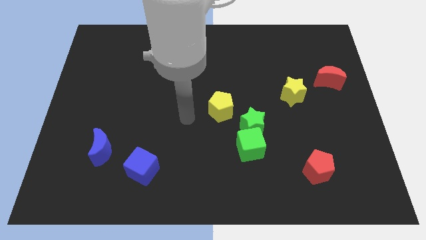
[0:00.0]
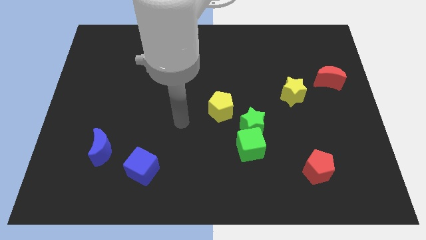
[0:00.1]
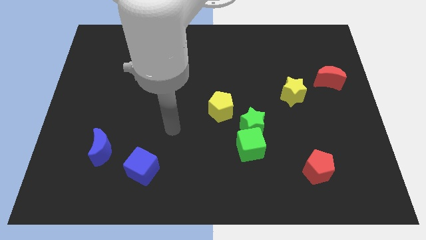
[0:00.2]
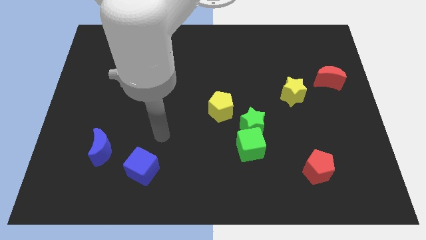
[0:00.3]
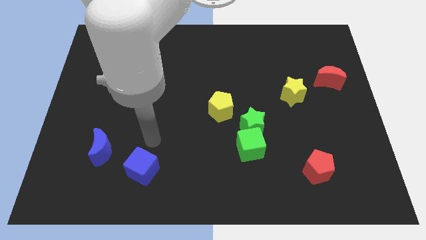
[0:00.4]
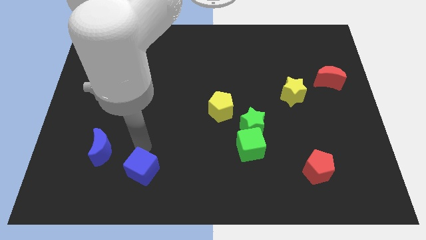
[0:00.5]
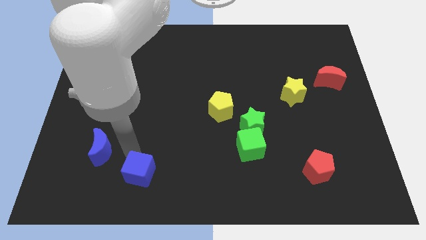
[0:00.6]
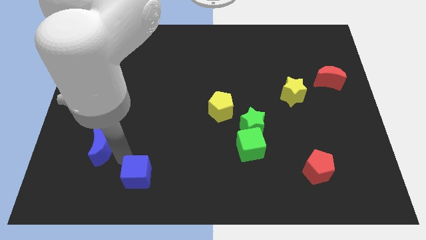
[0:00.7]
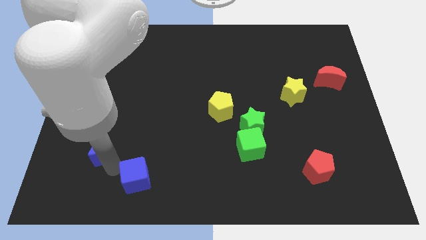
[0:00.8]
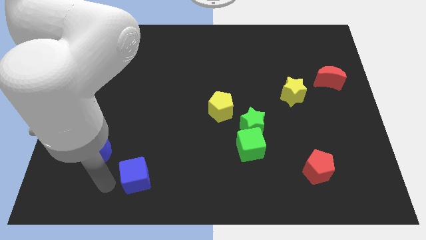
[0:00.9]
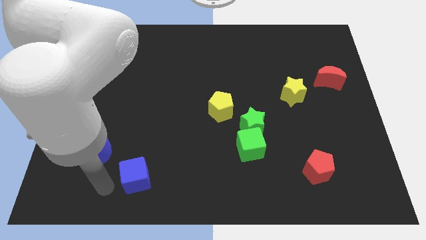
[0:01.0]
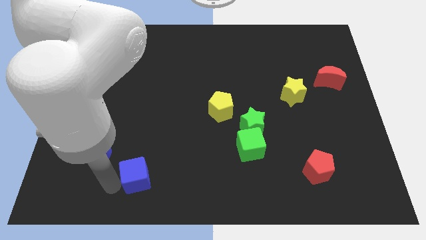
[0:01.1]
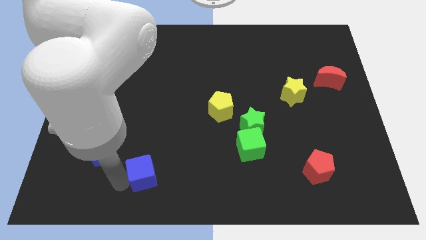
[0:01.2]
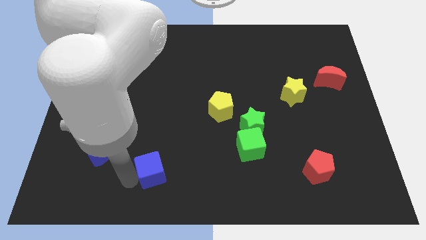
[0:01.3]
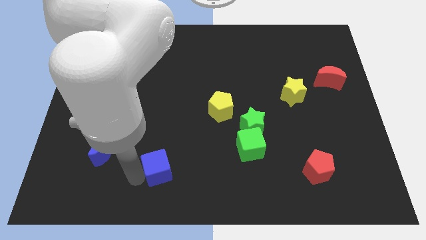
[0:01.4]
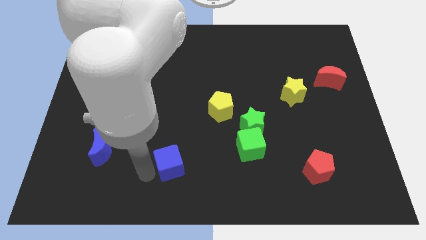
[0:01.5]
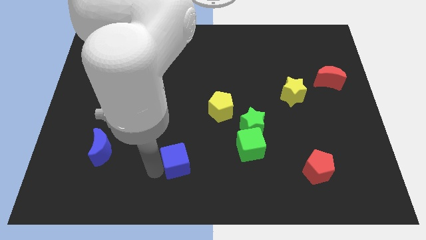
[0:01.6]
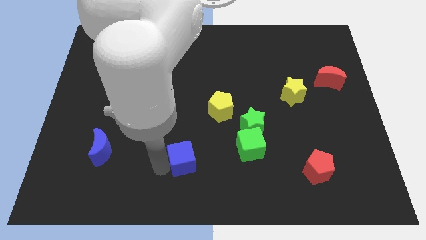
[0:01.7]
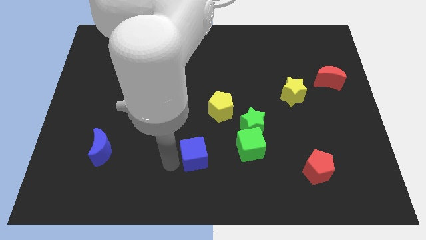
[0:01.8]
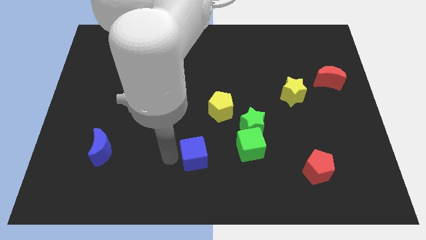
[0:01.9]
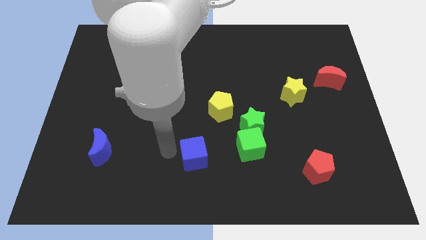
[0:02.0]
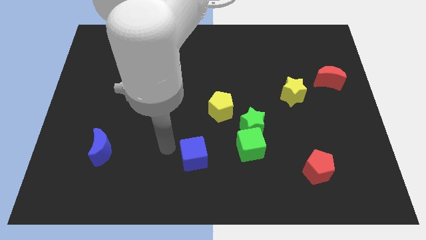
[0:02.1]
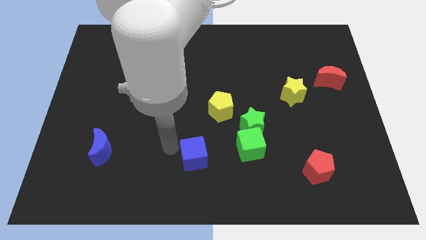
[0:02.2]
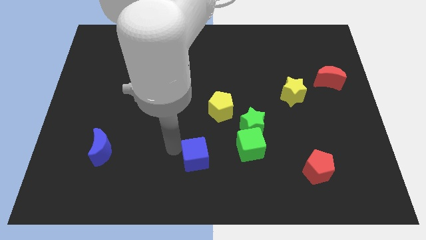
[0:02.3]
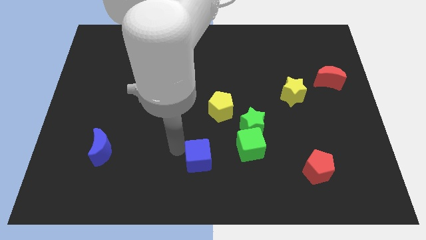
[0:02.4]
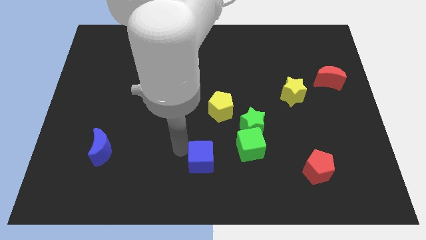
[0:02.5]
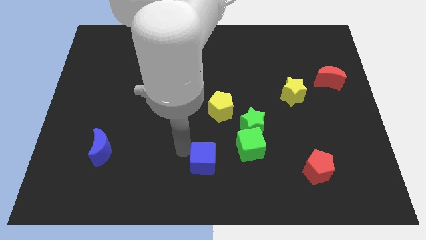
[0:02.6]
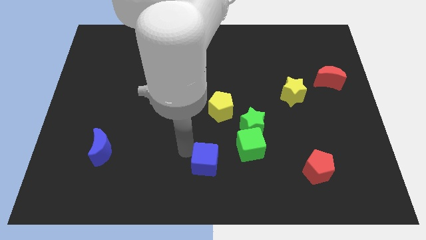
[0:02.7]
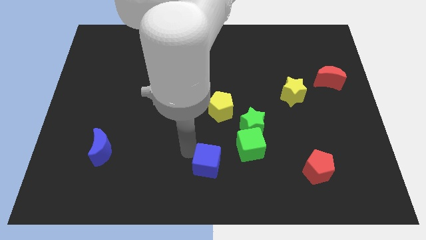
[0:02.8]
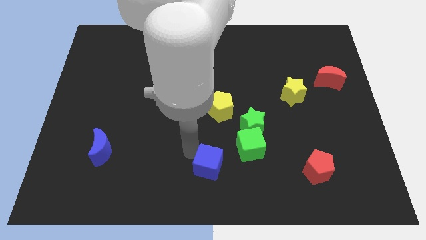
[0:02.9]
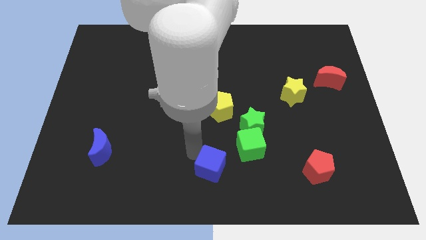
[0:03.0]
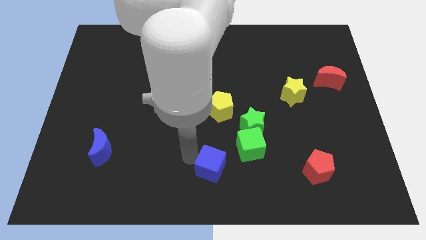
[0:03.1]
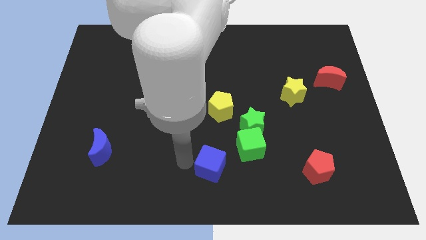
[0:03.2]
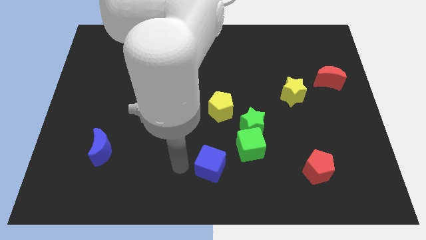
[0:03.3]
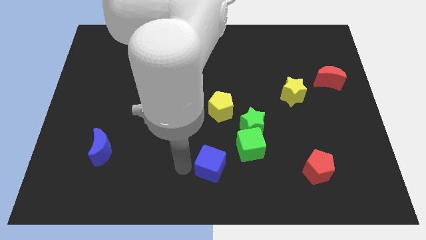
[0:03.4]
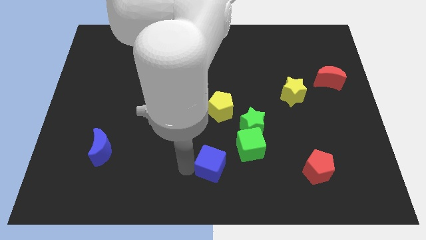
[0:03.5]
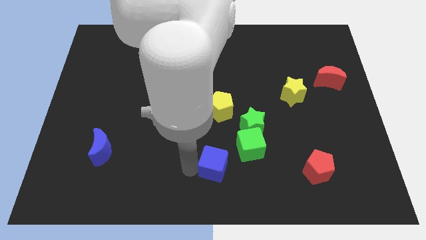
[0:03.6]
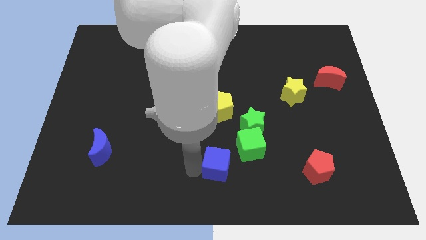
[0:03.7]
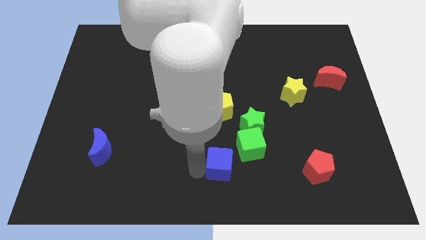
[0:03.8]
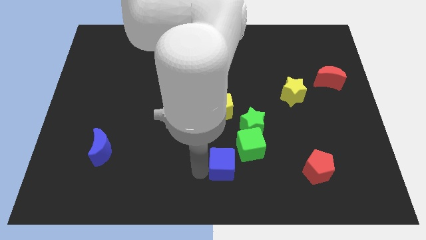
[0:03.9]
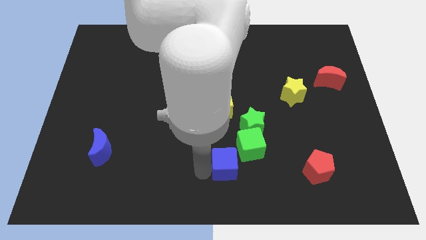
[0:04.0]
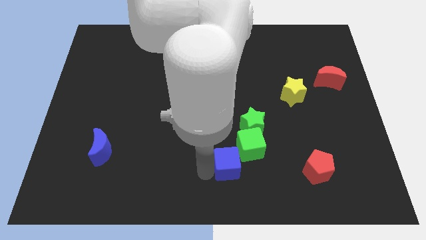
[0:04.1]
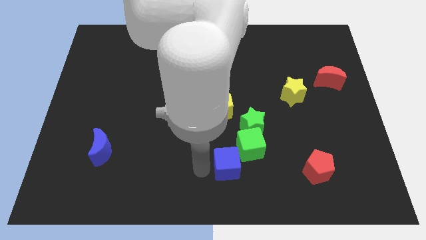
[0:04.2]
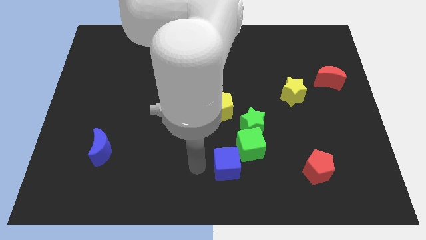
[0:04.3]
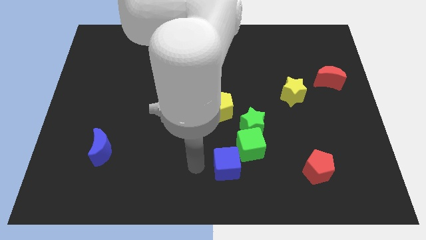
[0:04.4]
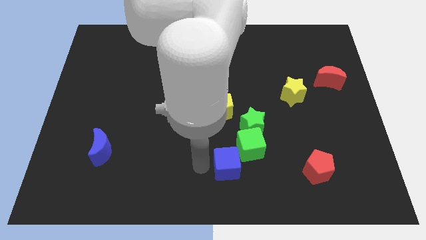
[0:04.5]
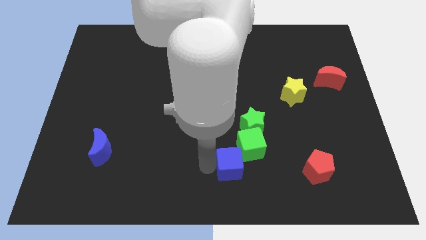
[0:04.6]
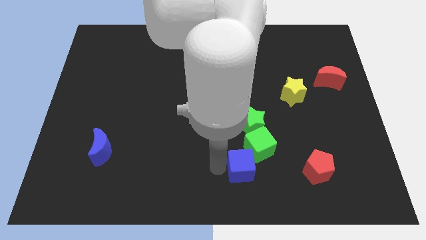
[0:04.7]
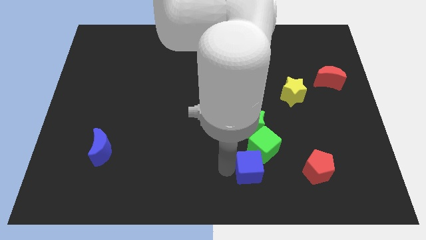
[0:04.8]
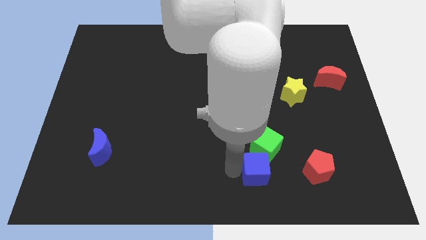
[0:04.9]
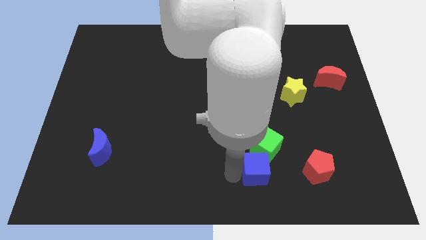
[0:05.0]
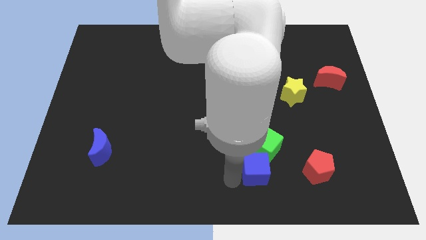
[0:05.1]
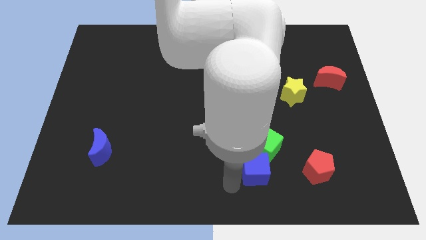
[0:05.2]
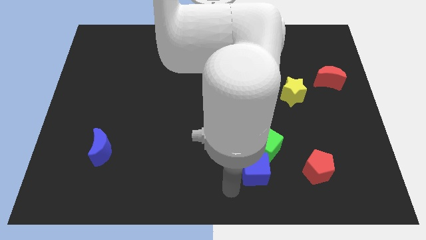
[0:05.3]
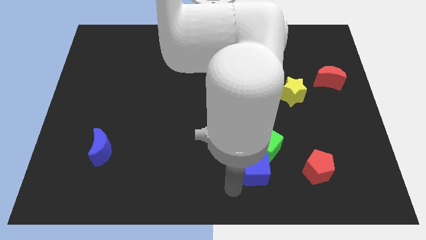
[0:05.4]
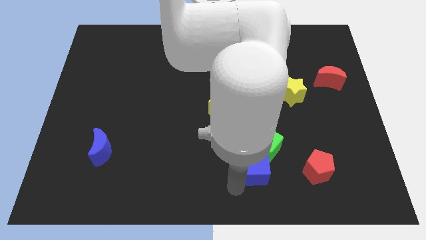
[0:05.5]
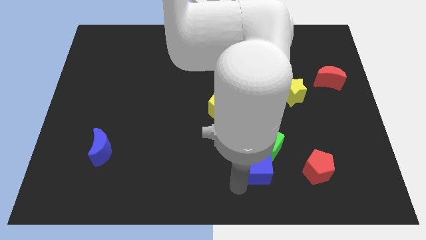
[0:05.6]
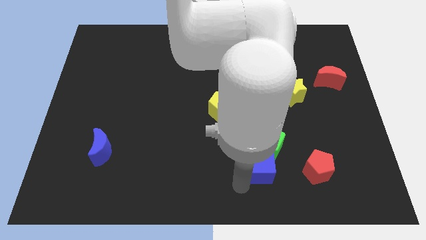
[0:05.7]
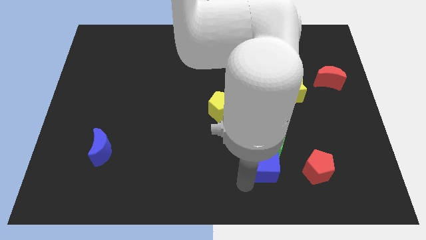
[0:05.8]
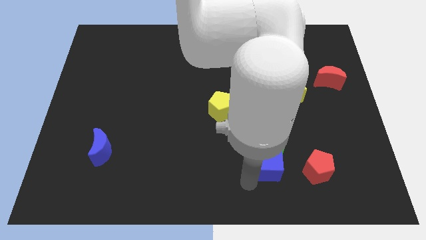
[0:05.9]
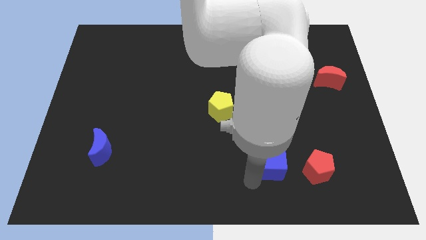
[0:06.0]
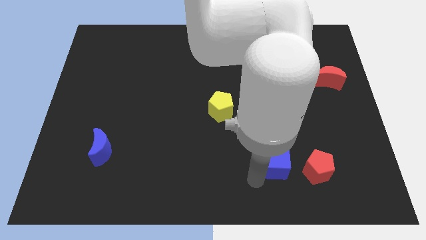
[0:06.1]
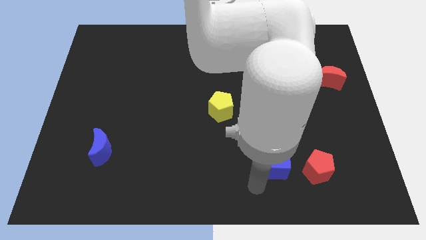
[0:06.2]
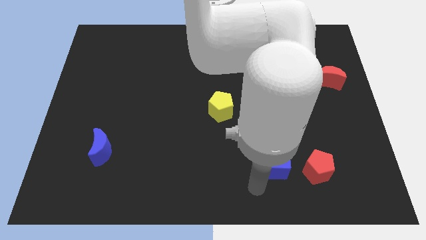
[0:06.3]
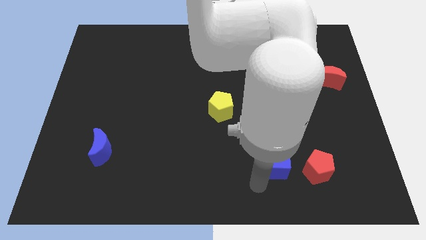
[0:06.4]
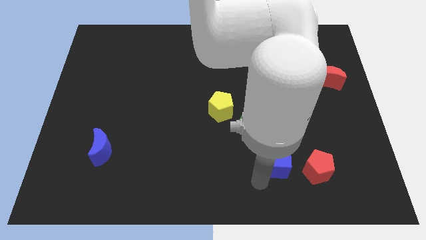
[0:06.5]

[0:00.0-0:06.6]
put the blue cube to the top left side of the red pentagon

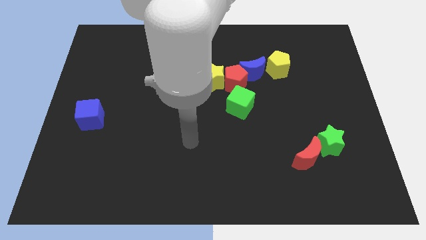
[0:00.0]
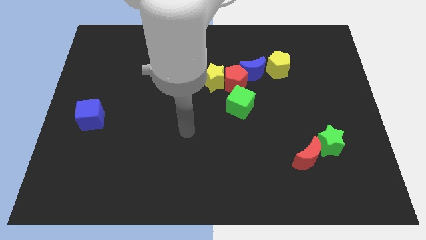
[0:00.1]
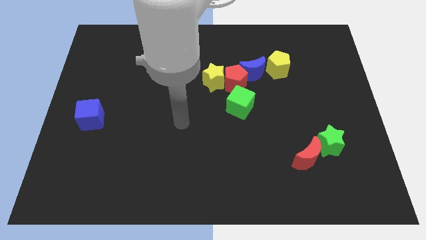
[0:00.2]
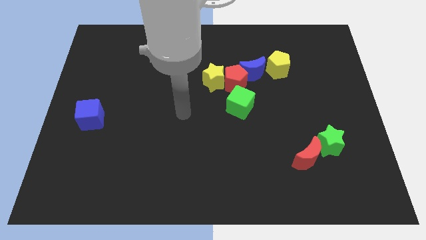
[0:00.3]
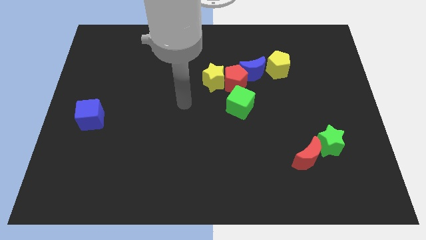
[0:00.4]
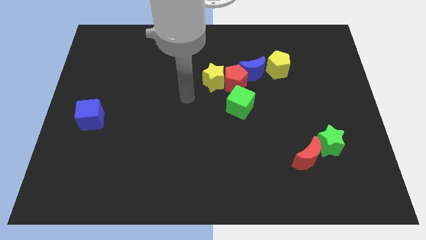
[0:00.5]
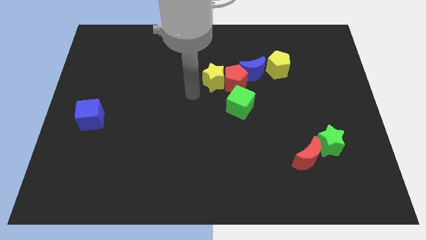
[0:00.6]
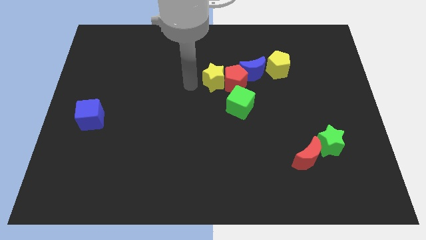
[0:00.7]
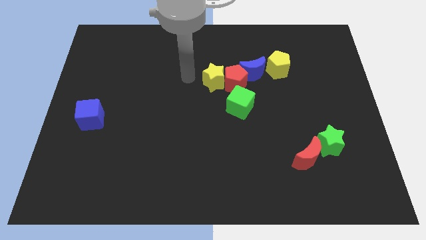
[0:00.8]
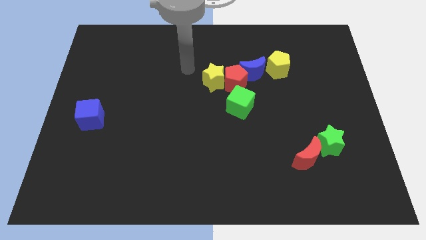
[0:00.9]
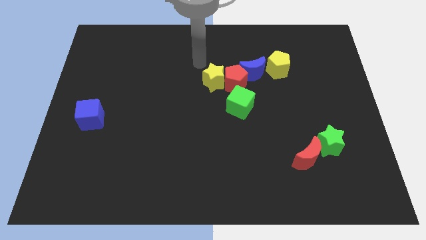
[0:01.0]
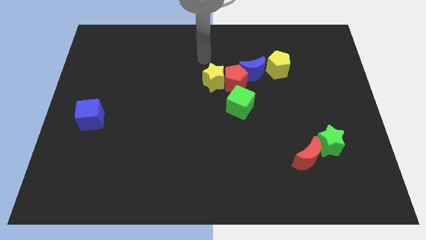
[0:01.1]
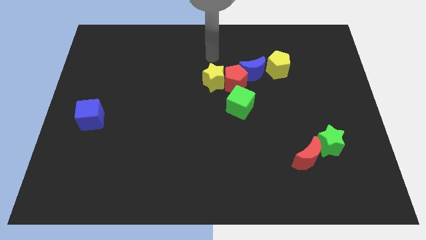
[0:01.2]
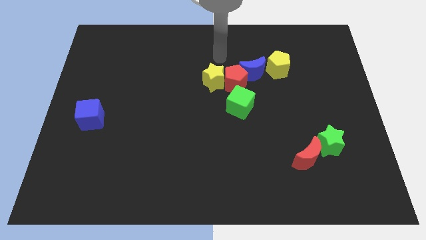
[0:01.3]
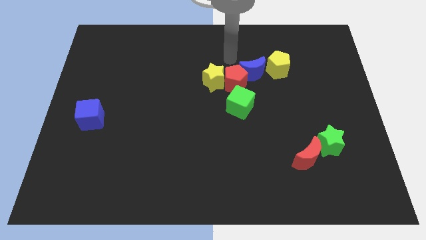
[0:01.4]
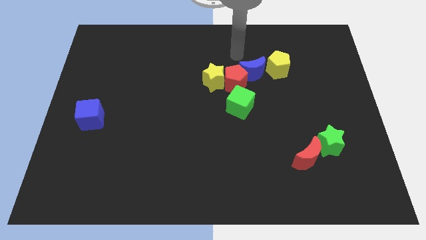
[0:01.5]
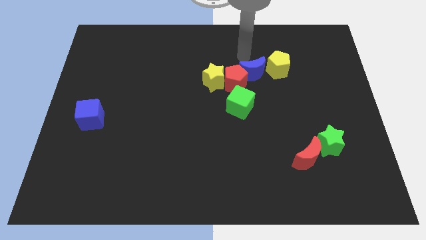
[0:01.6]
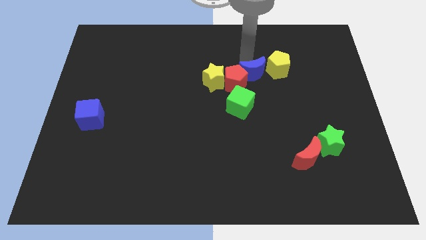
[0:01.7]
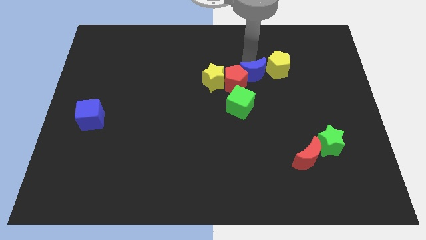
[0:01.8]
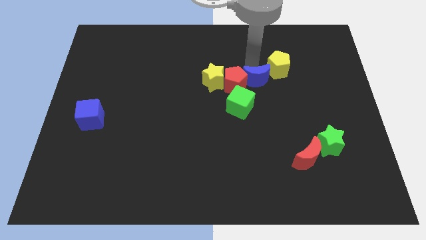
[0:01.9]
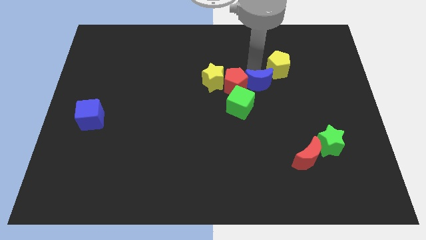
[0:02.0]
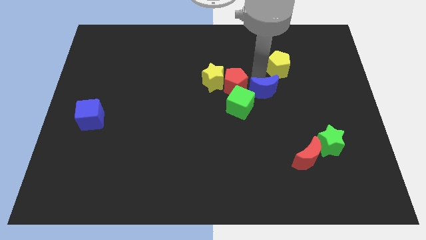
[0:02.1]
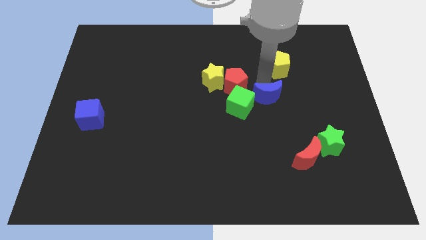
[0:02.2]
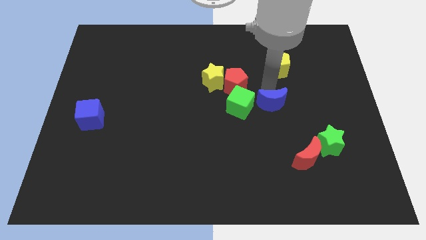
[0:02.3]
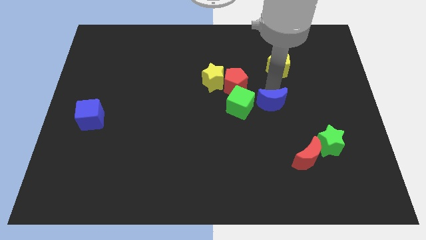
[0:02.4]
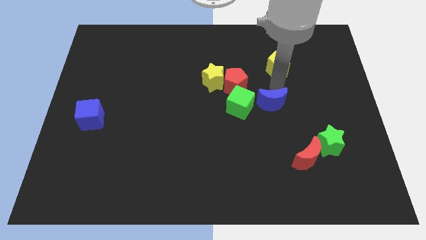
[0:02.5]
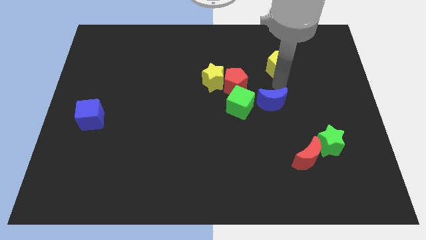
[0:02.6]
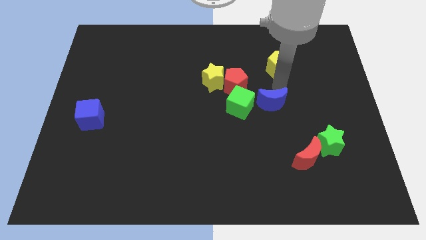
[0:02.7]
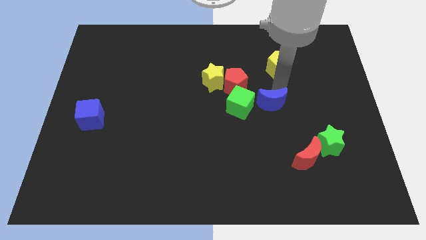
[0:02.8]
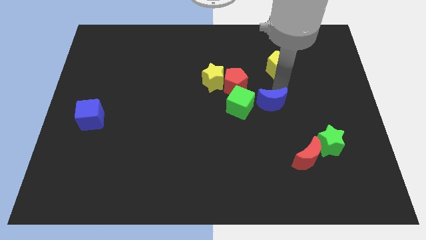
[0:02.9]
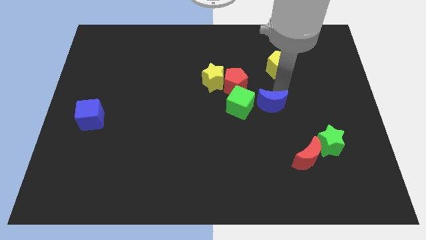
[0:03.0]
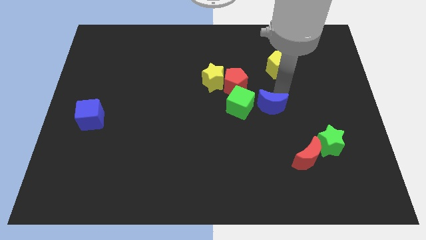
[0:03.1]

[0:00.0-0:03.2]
move the blue moon diagonally down and to the right of the green cube
